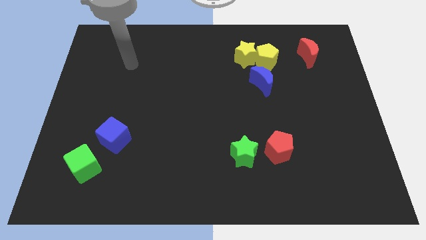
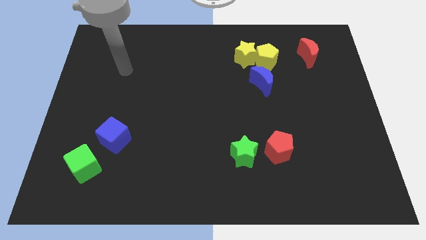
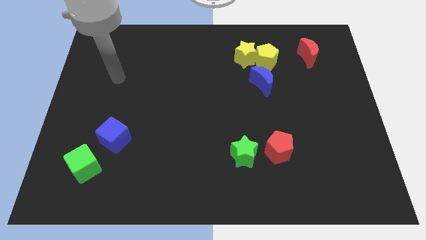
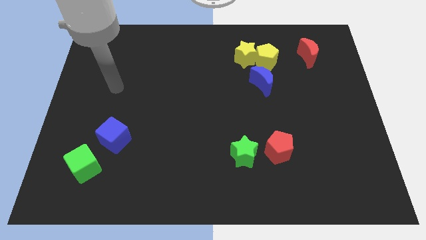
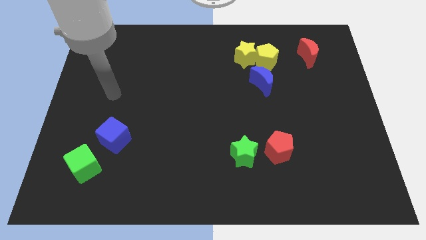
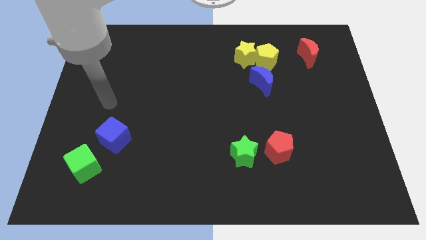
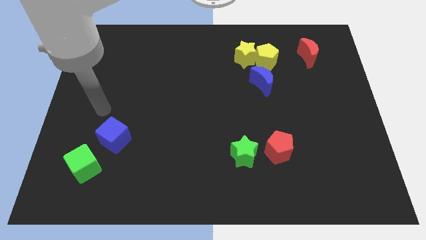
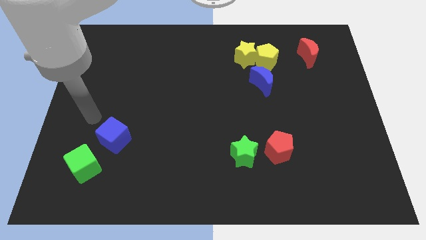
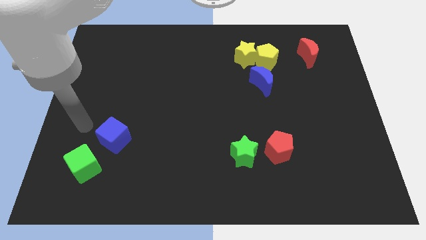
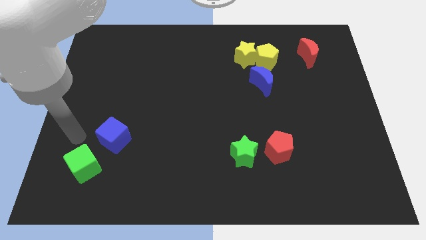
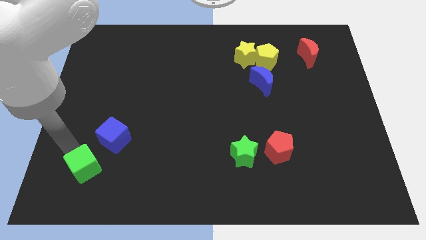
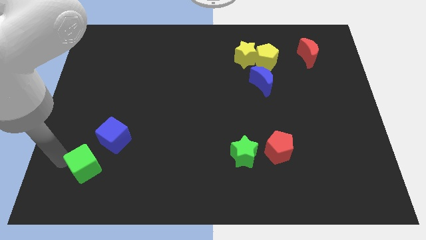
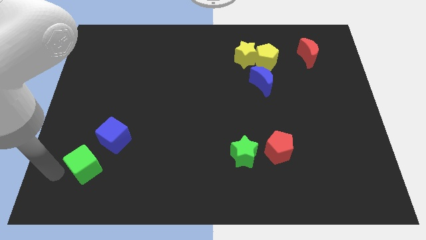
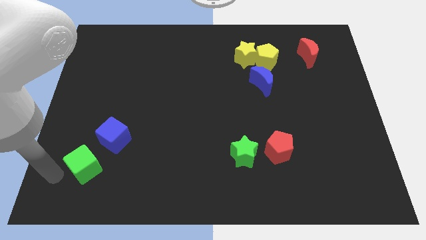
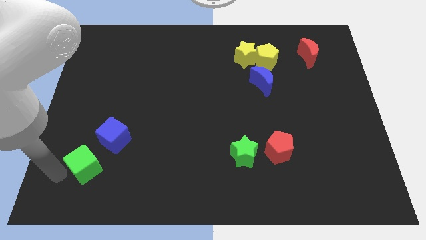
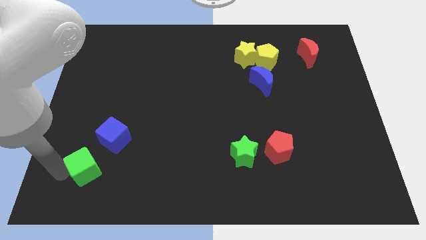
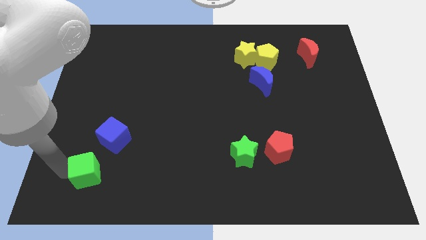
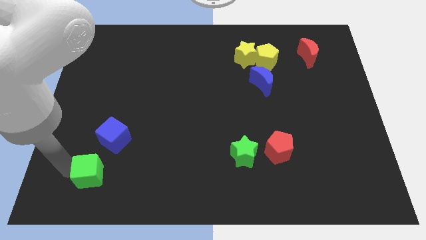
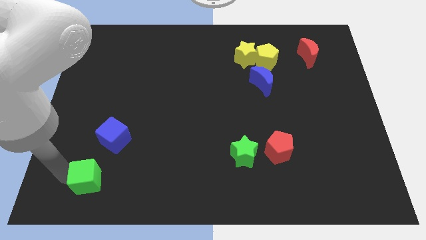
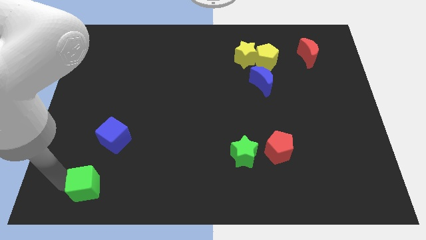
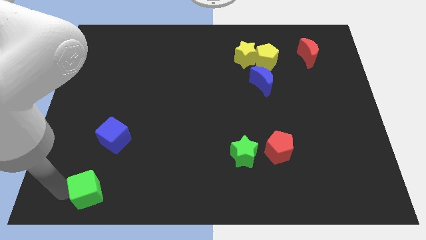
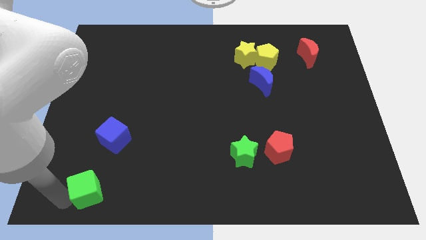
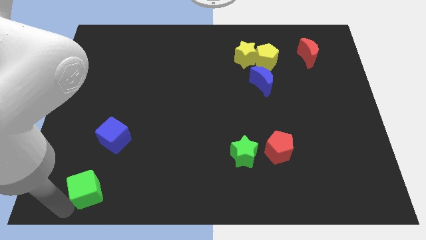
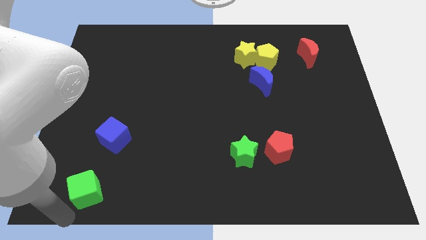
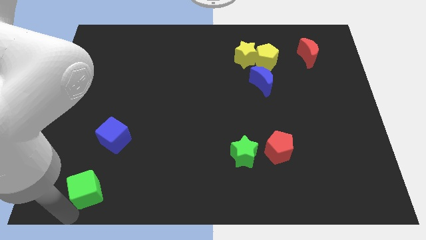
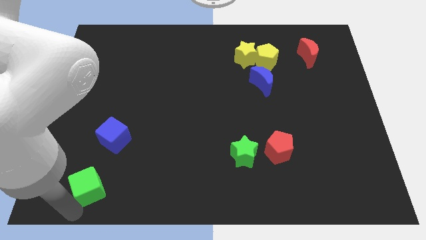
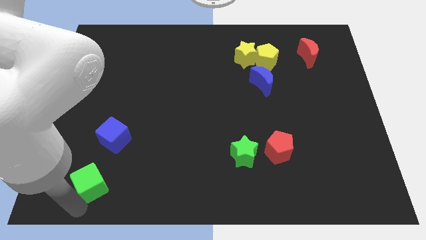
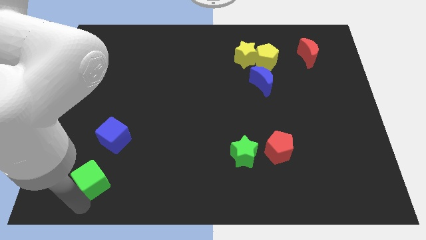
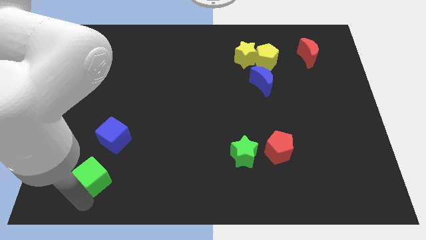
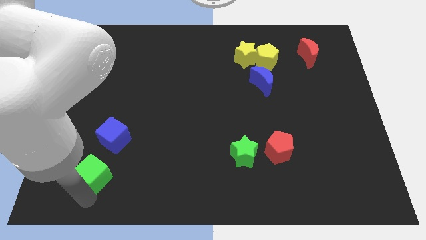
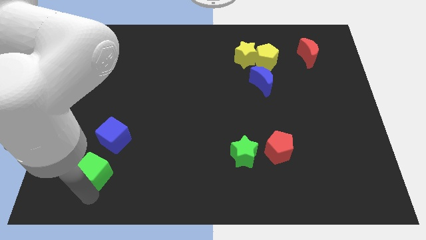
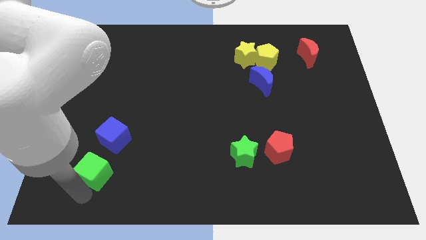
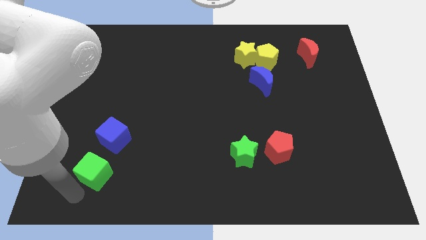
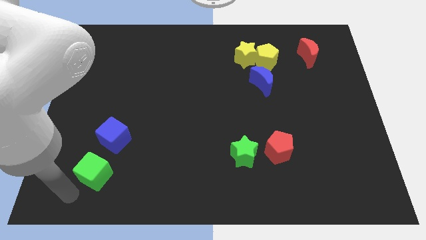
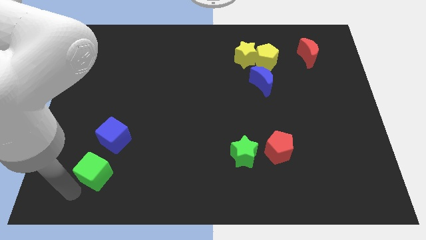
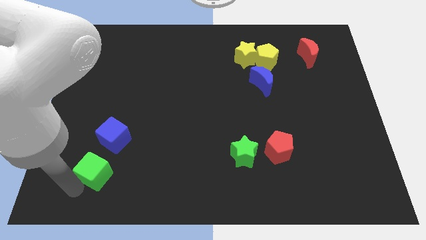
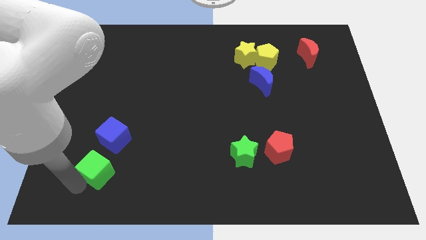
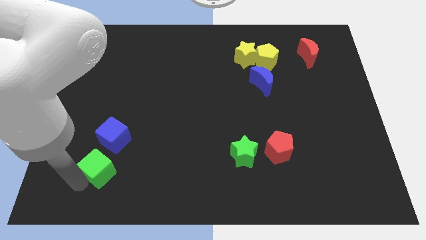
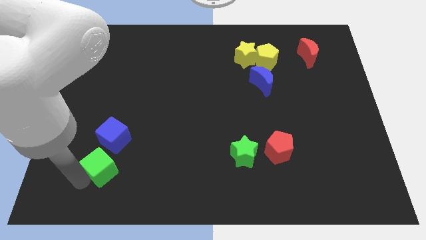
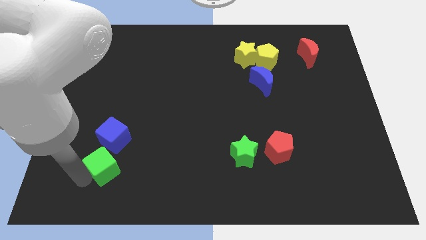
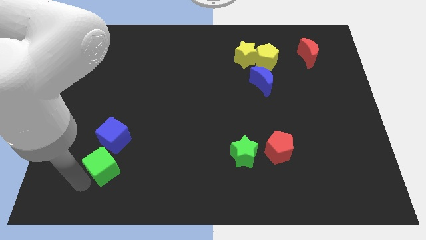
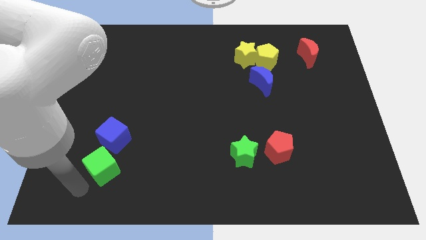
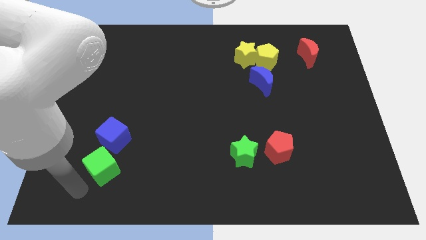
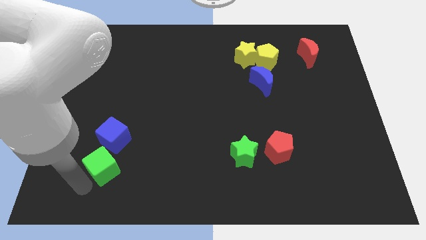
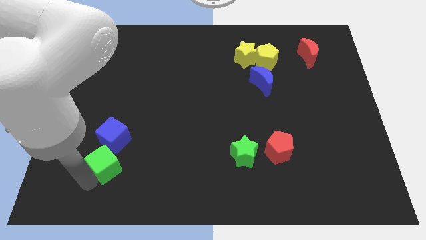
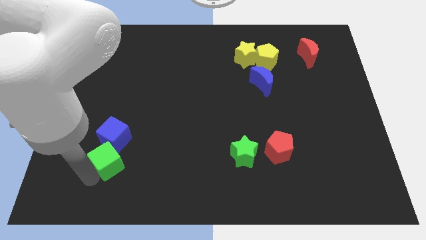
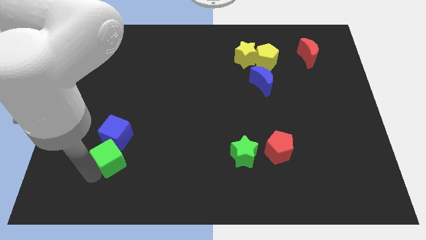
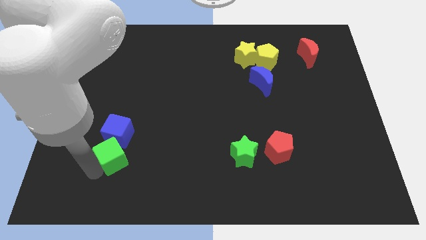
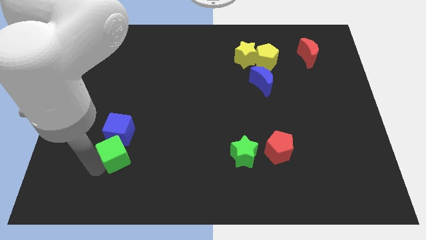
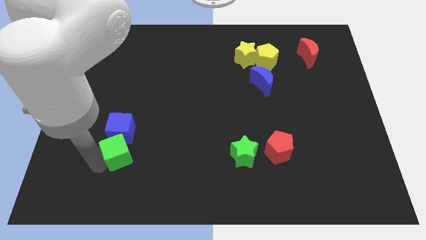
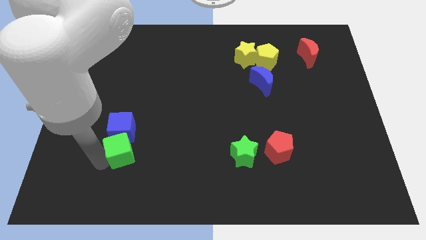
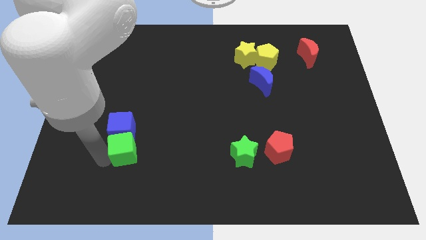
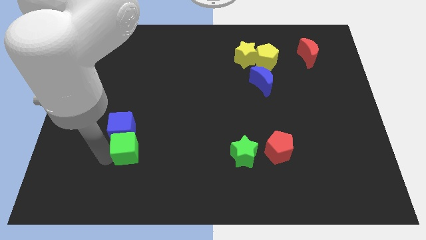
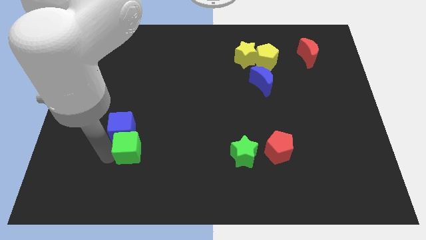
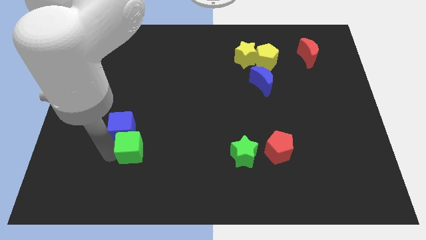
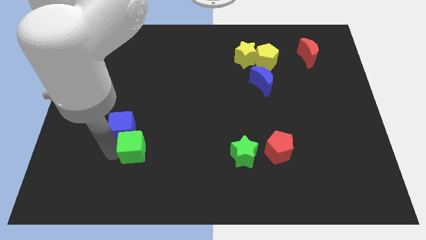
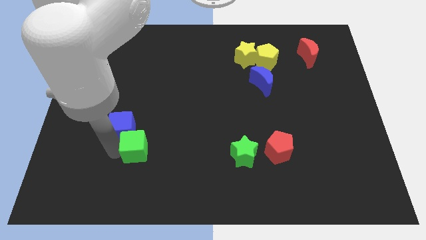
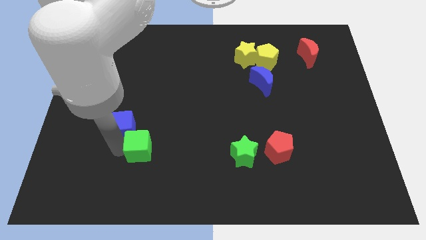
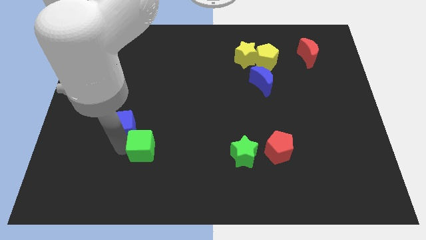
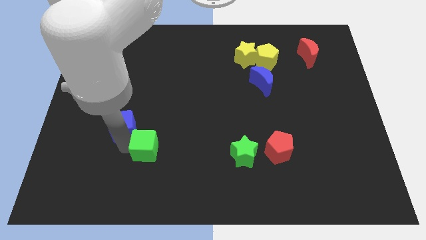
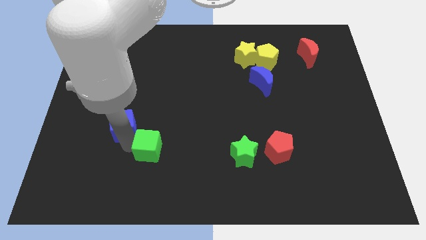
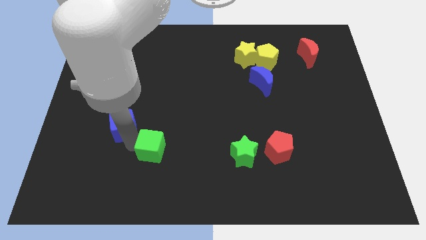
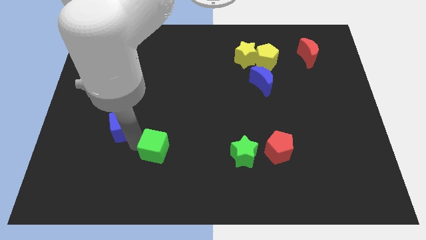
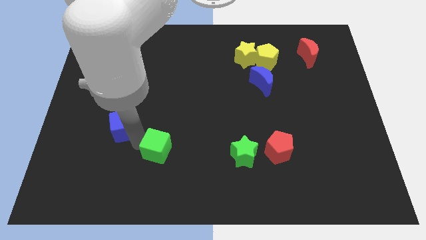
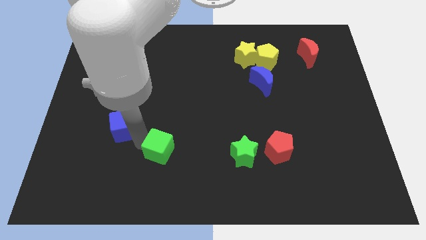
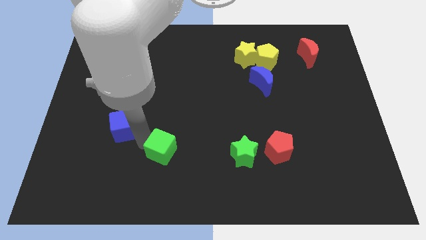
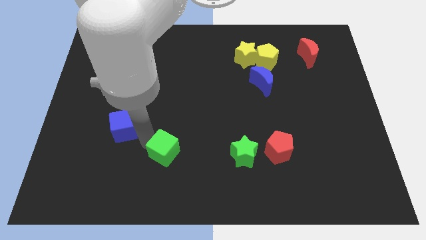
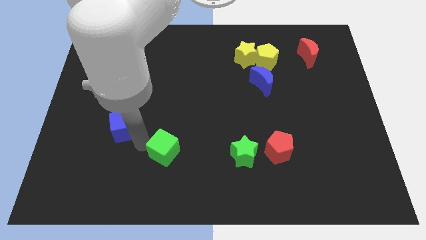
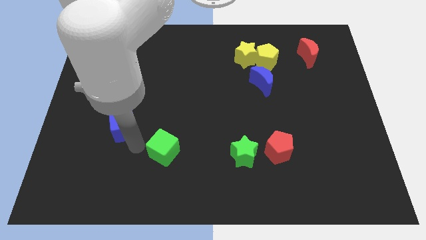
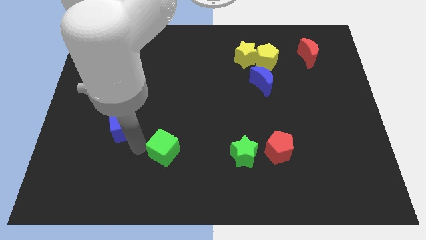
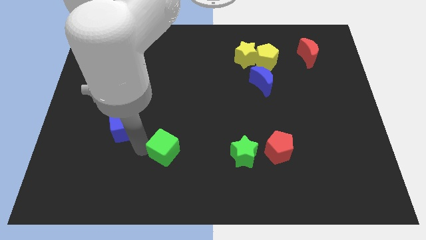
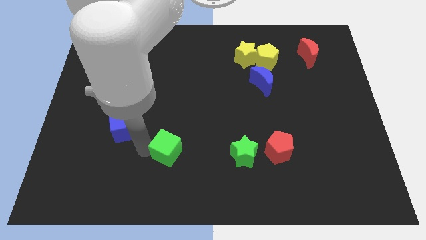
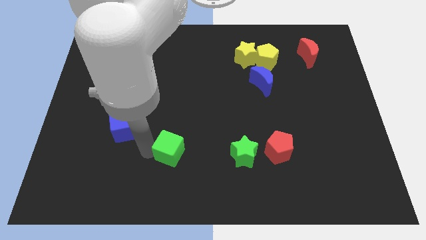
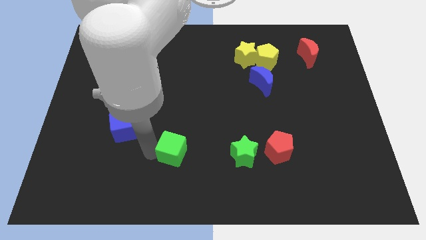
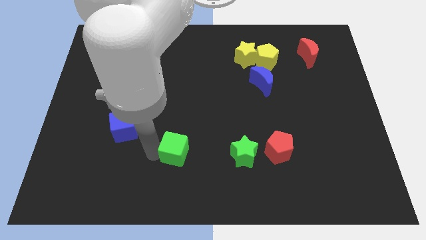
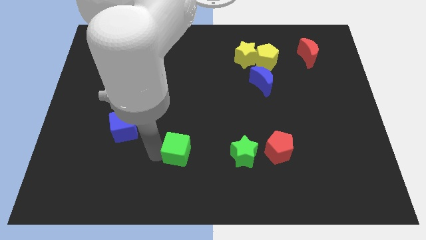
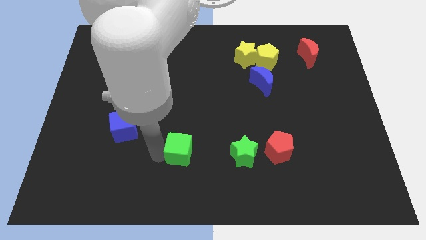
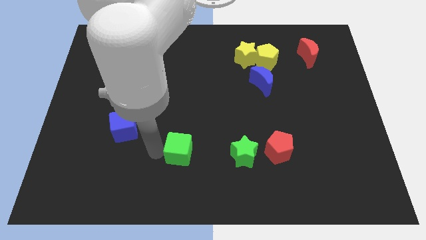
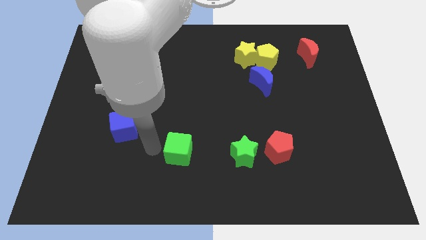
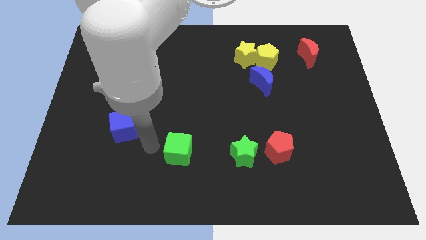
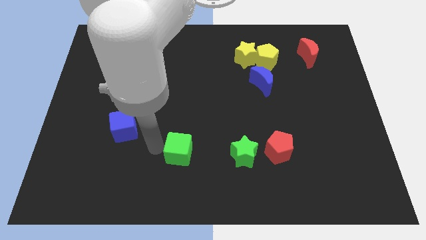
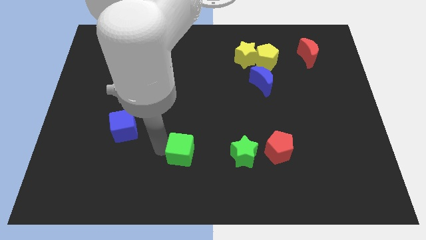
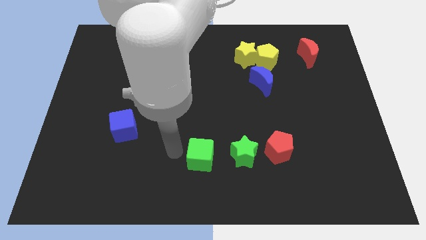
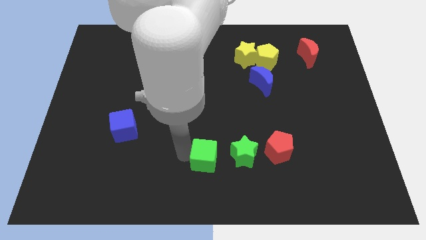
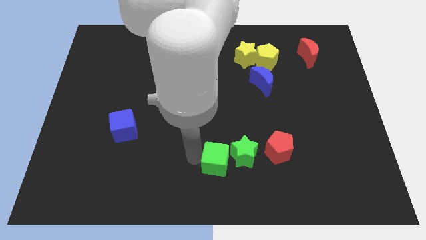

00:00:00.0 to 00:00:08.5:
move the green cube towards the green star

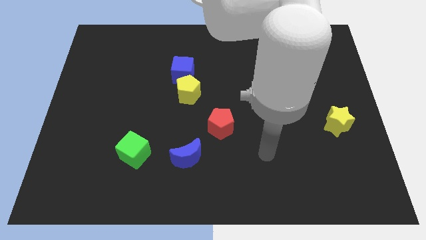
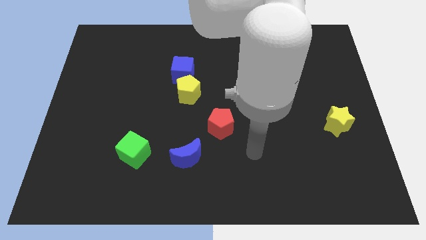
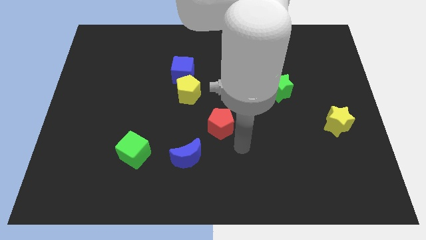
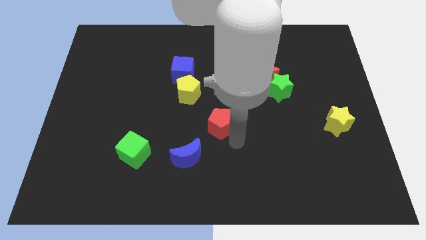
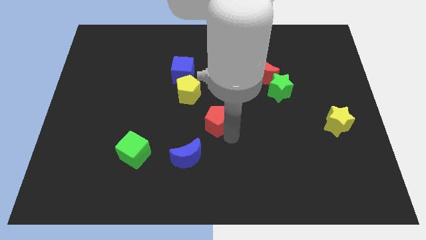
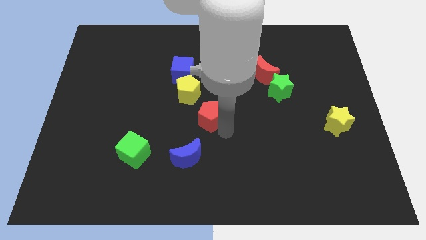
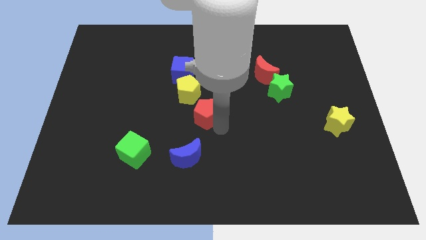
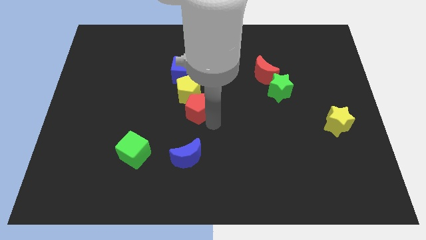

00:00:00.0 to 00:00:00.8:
move the red pentagon to the yellow pentagon
